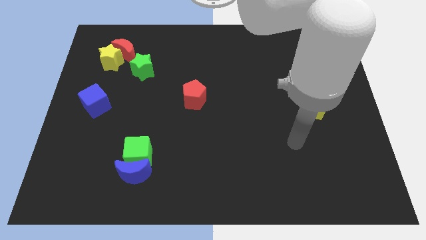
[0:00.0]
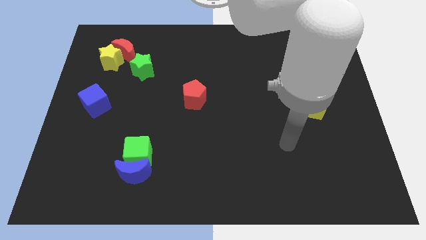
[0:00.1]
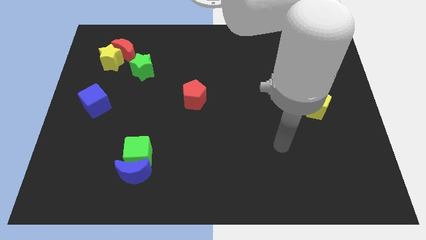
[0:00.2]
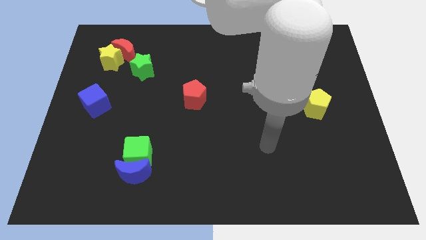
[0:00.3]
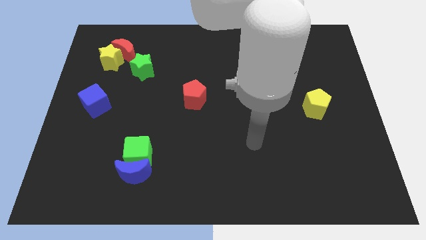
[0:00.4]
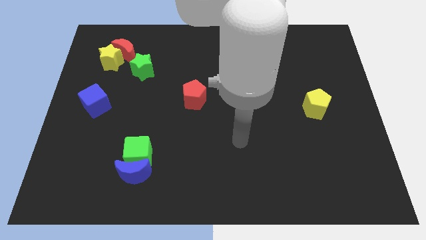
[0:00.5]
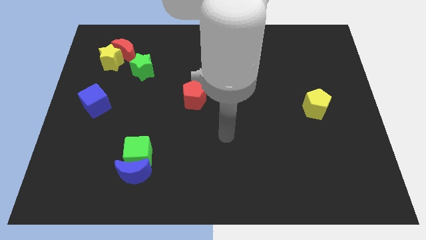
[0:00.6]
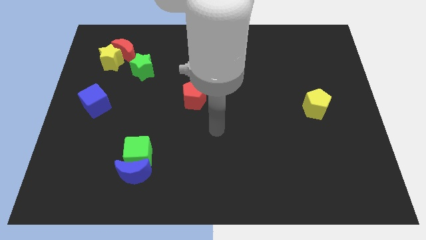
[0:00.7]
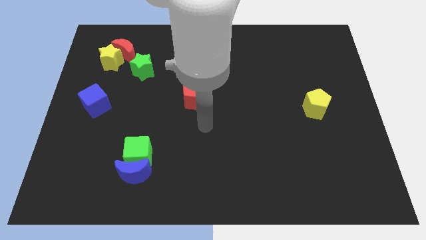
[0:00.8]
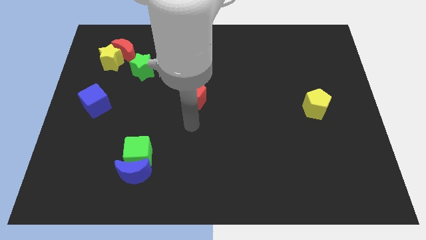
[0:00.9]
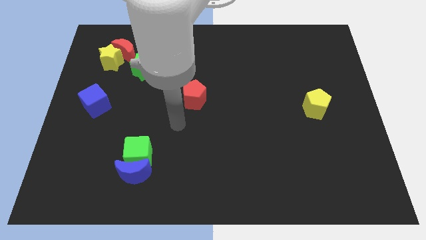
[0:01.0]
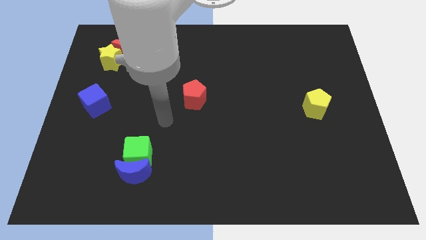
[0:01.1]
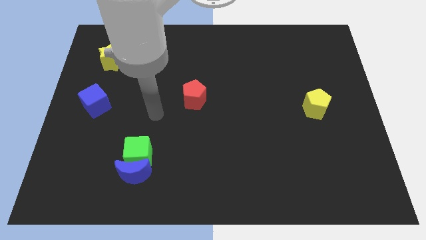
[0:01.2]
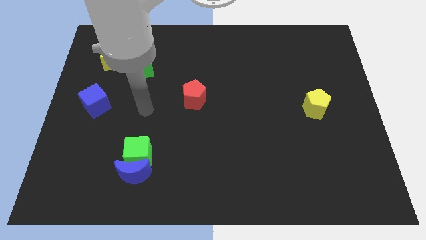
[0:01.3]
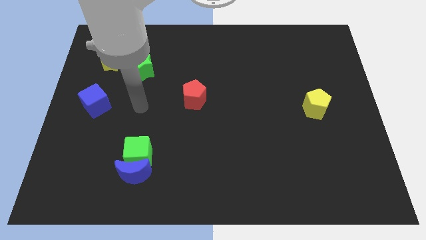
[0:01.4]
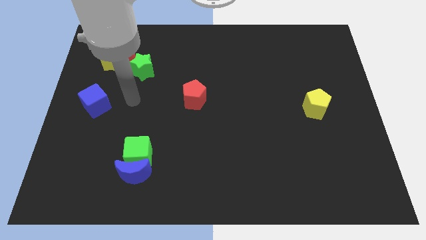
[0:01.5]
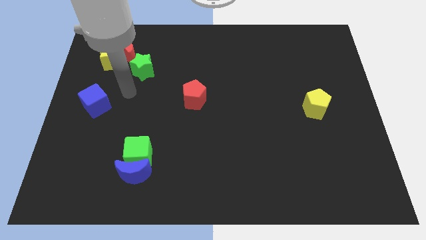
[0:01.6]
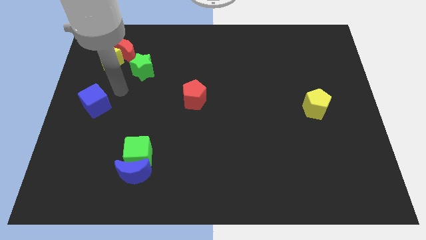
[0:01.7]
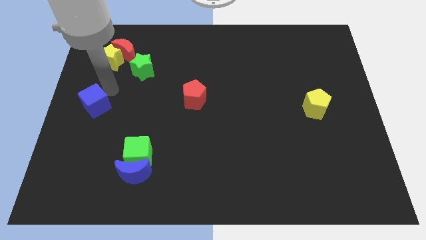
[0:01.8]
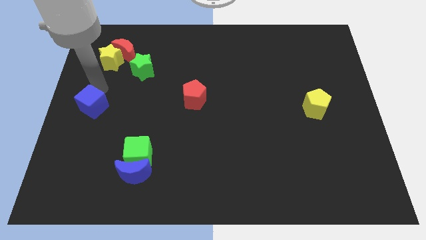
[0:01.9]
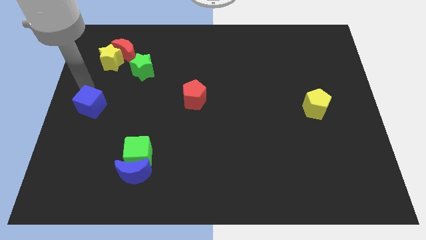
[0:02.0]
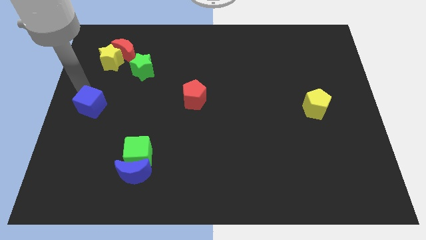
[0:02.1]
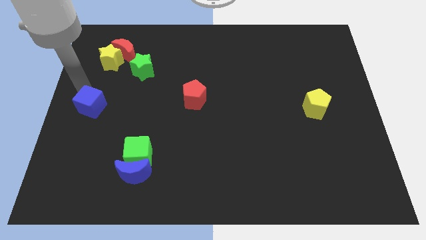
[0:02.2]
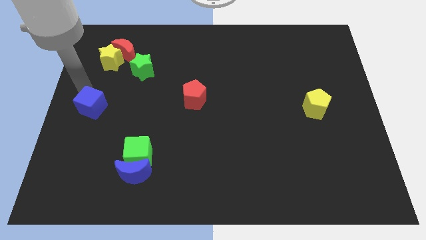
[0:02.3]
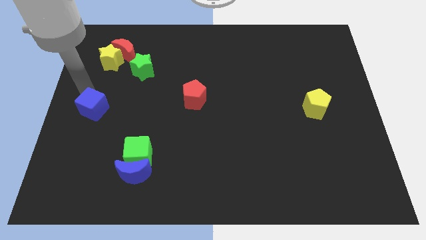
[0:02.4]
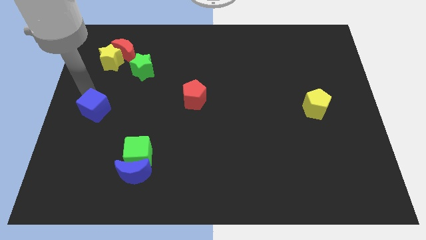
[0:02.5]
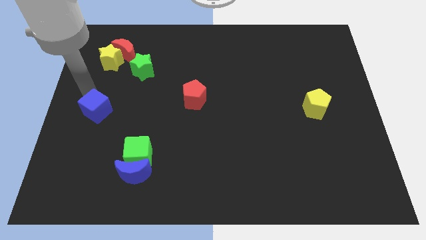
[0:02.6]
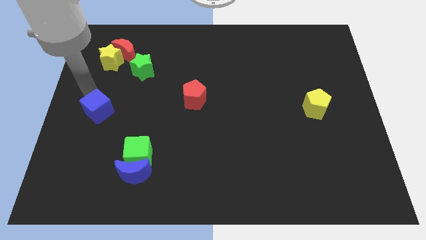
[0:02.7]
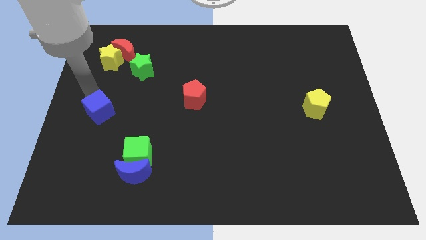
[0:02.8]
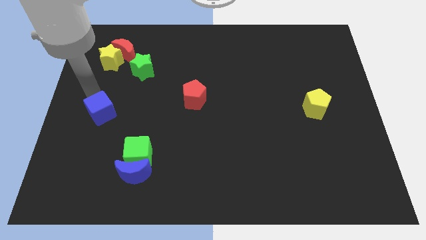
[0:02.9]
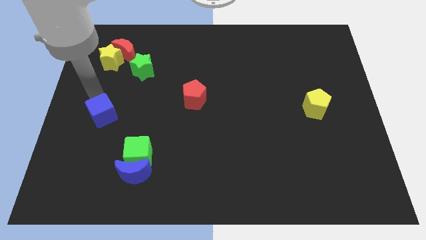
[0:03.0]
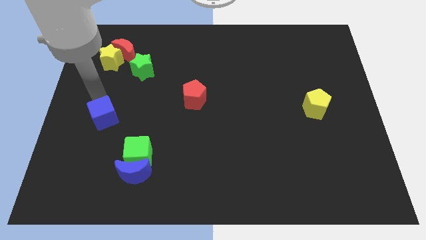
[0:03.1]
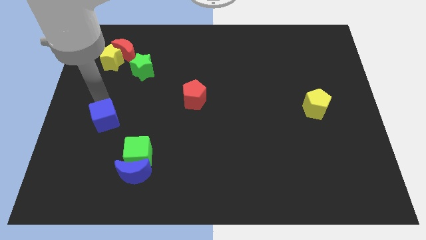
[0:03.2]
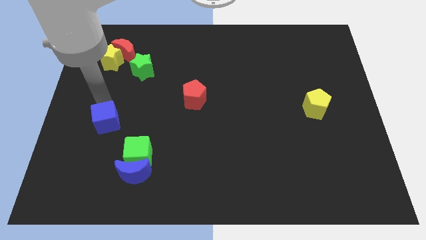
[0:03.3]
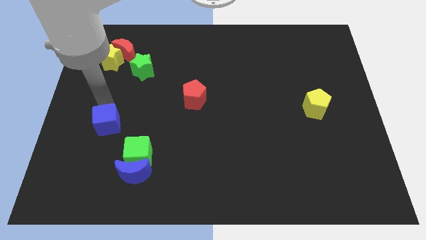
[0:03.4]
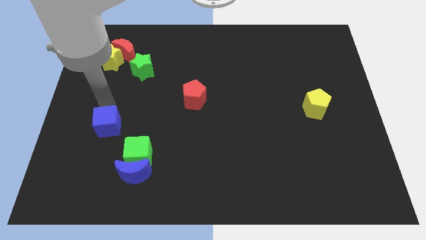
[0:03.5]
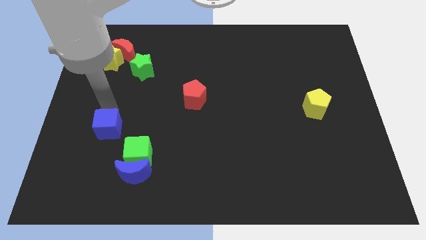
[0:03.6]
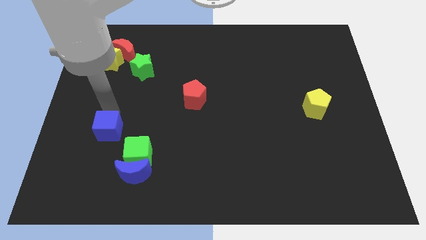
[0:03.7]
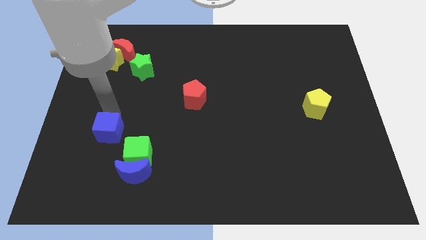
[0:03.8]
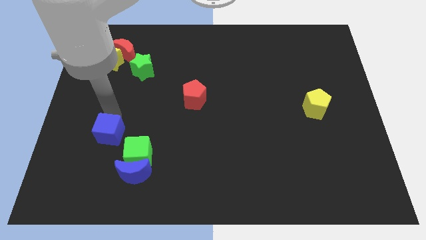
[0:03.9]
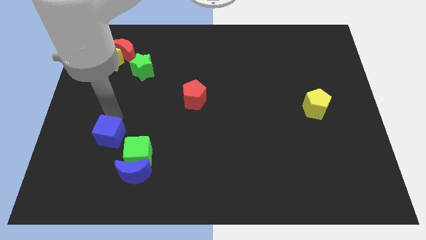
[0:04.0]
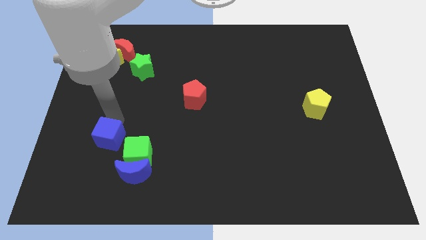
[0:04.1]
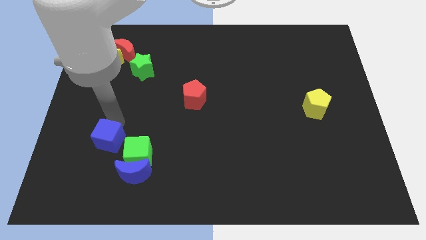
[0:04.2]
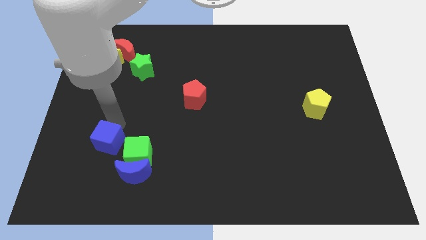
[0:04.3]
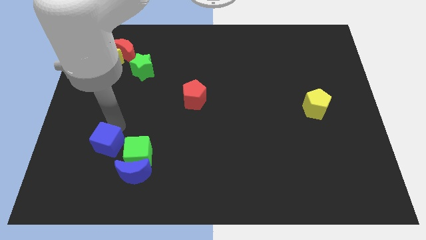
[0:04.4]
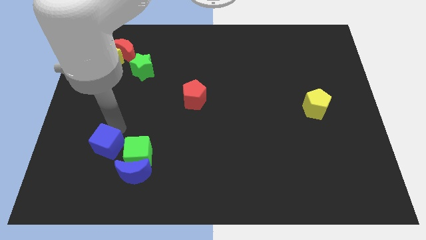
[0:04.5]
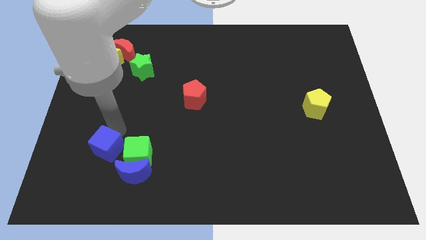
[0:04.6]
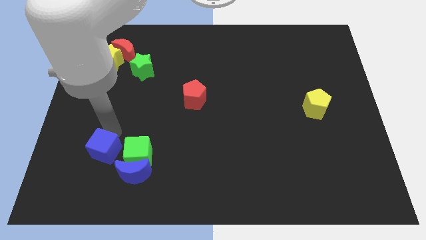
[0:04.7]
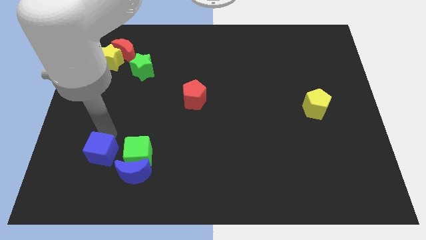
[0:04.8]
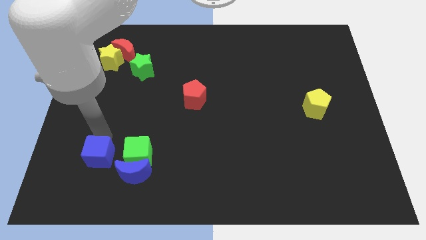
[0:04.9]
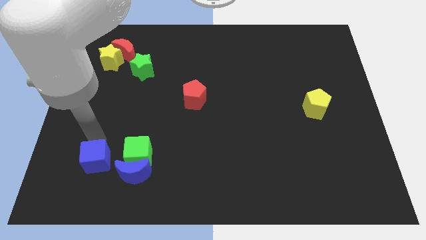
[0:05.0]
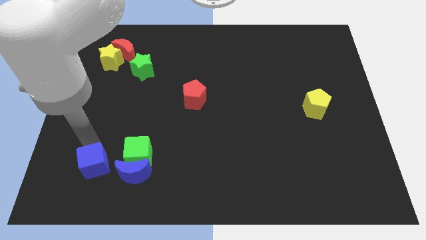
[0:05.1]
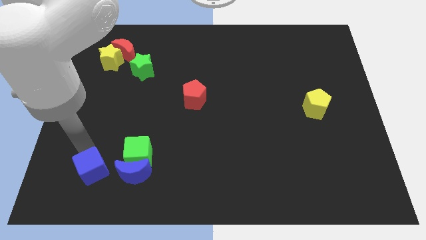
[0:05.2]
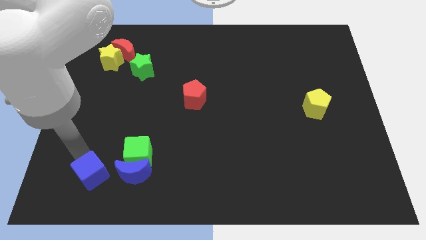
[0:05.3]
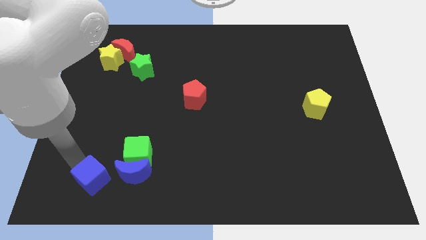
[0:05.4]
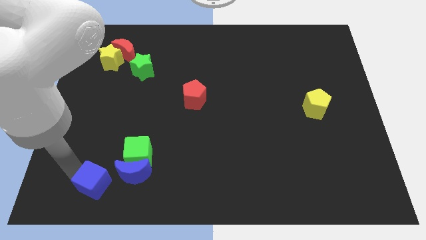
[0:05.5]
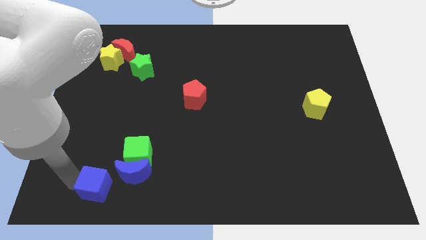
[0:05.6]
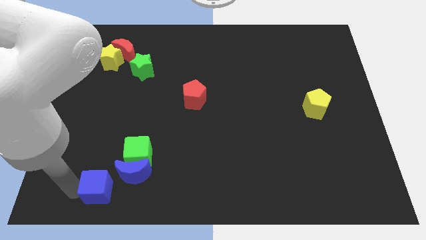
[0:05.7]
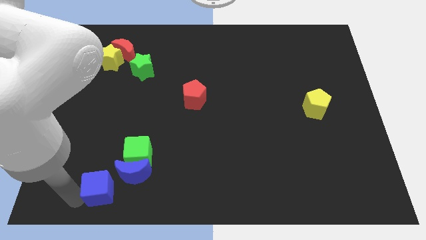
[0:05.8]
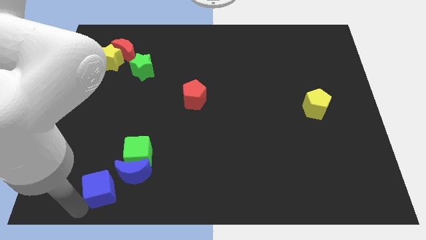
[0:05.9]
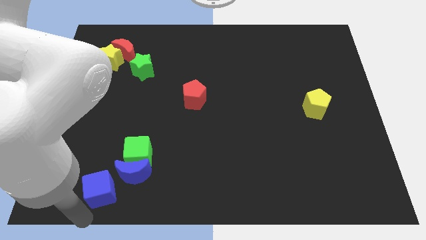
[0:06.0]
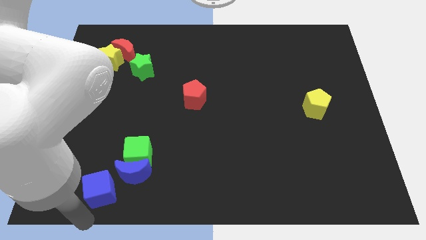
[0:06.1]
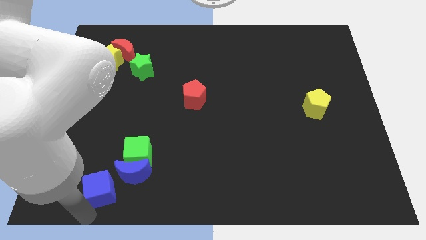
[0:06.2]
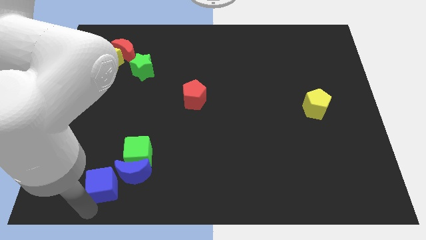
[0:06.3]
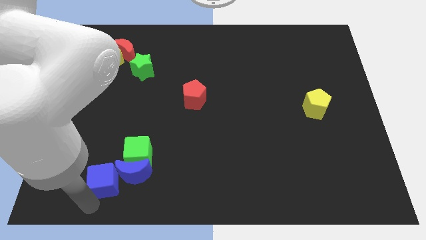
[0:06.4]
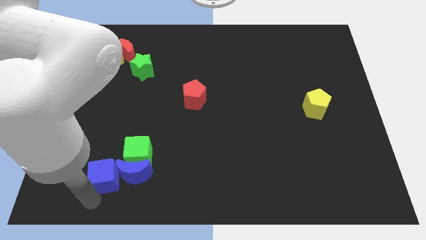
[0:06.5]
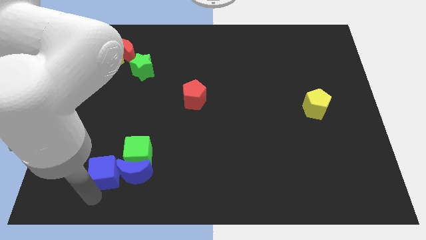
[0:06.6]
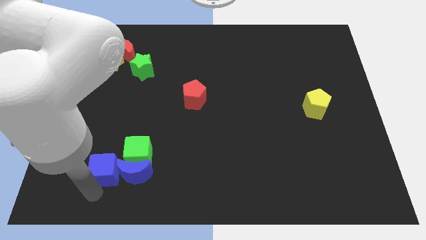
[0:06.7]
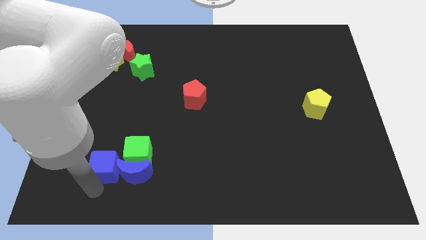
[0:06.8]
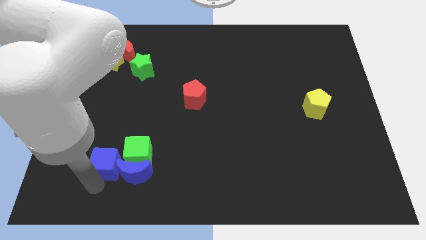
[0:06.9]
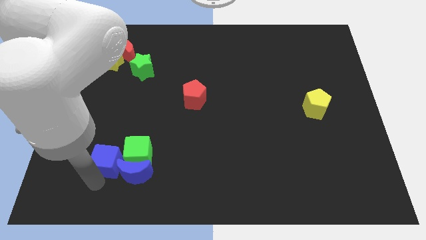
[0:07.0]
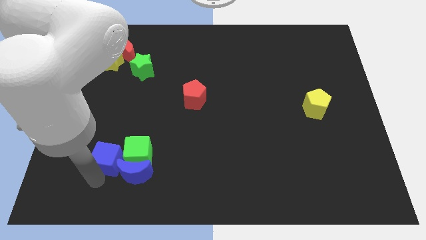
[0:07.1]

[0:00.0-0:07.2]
slide the blue cube to the green cube
